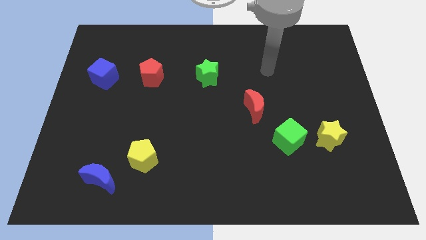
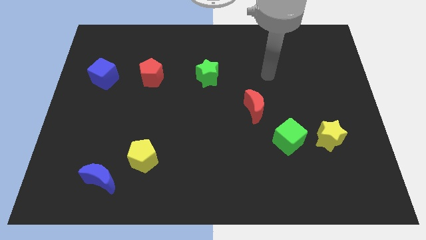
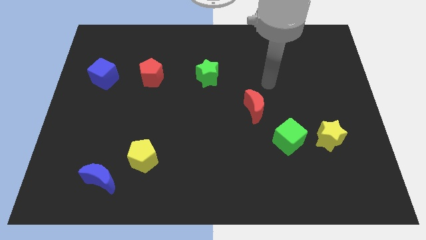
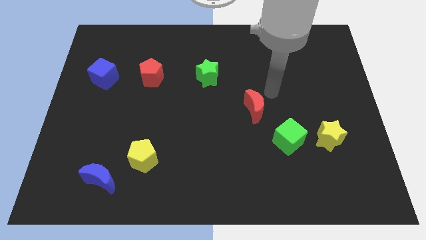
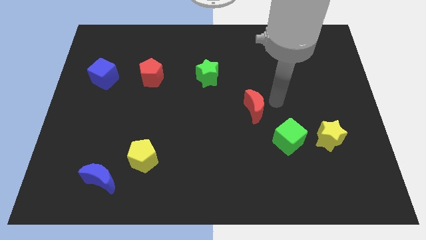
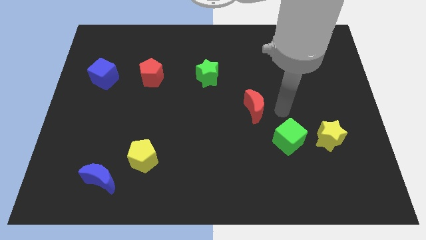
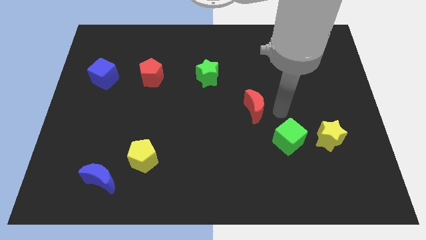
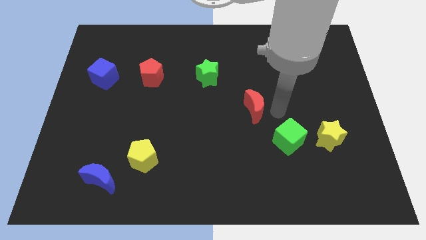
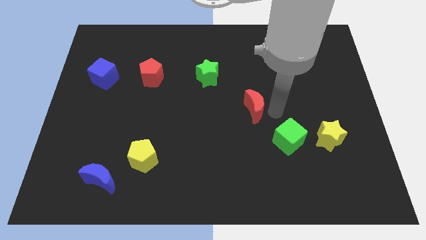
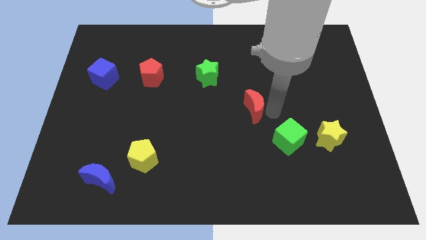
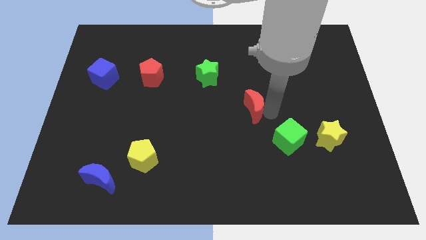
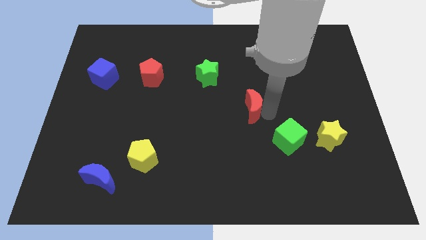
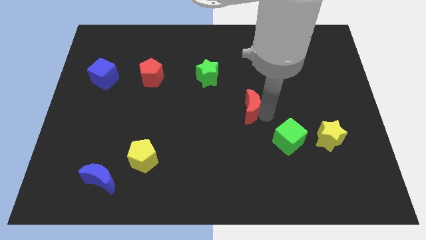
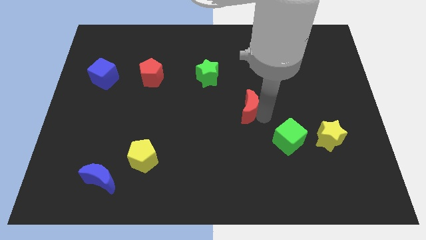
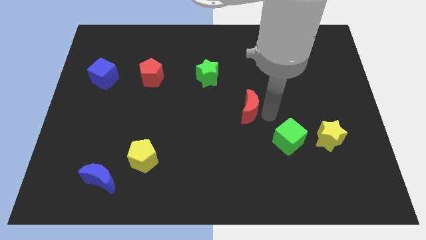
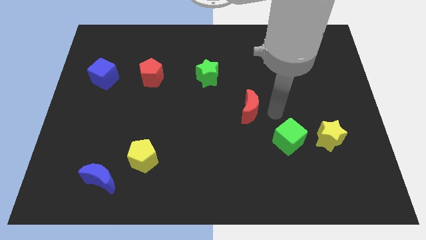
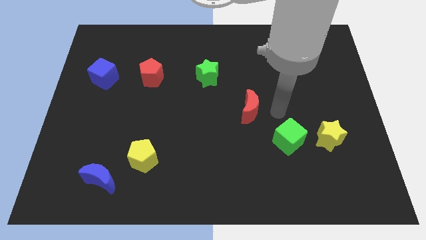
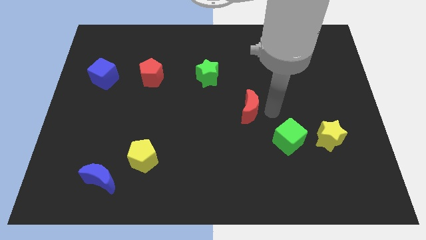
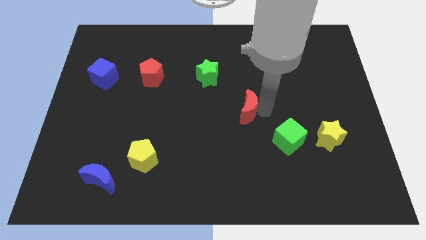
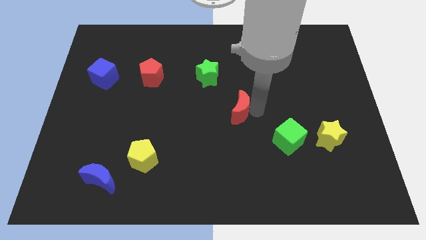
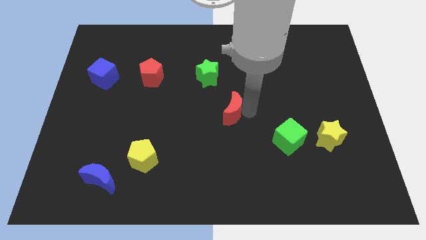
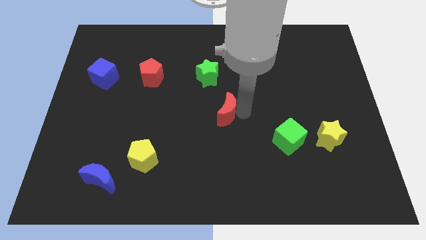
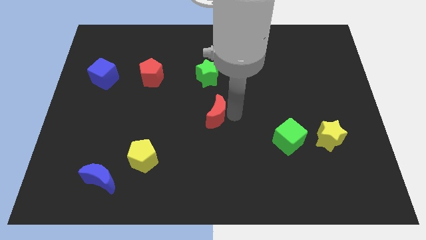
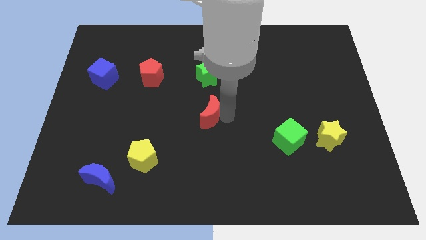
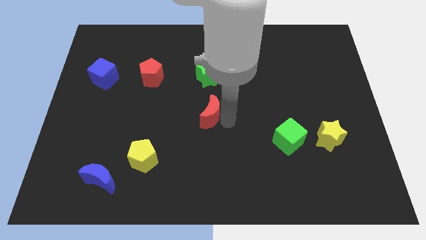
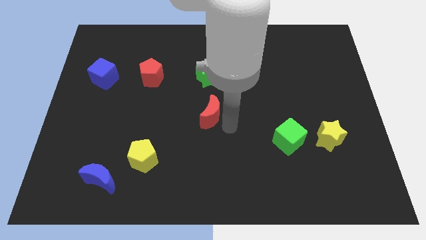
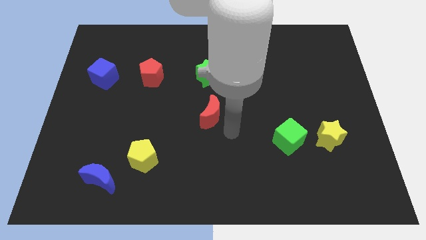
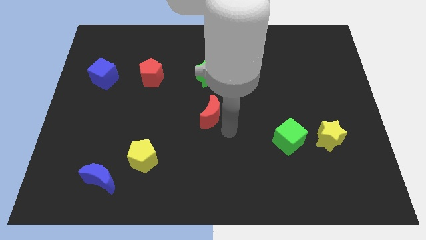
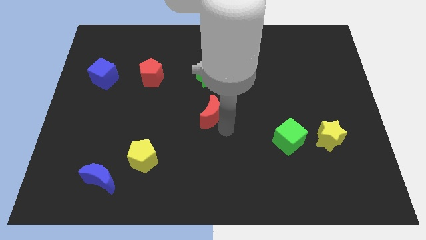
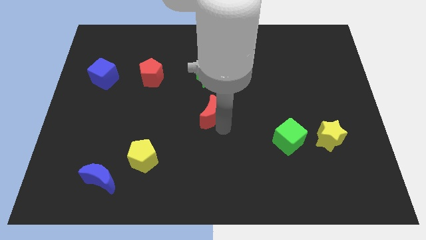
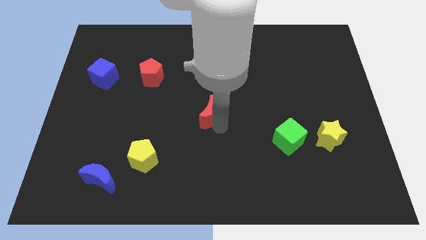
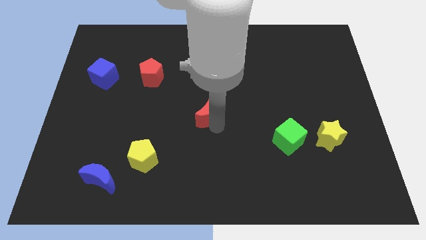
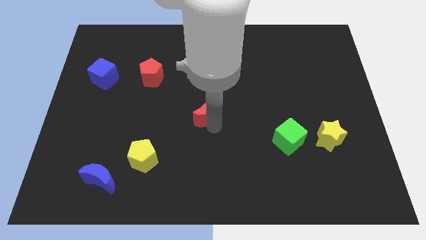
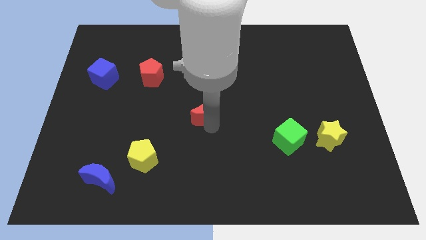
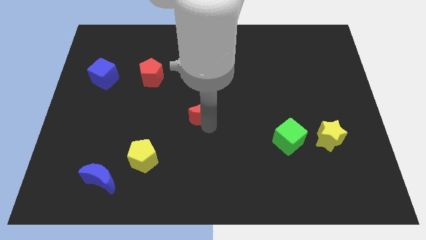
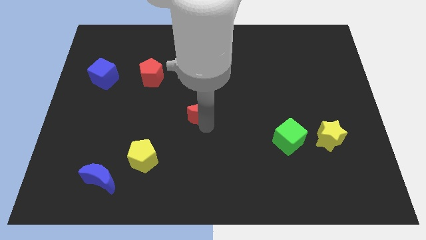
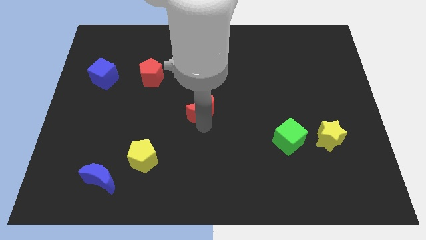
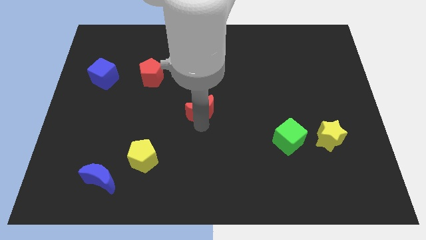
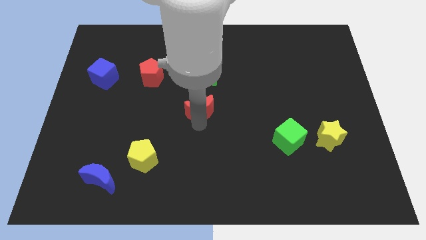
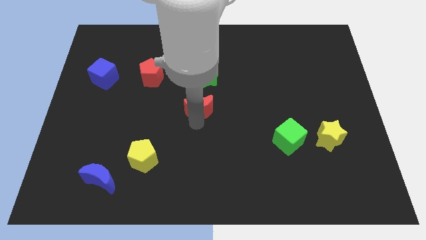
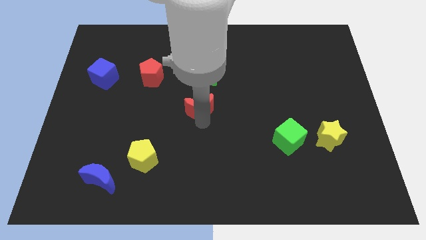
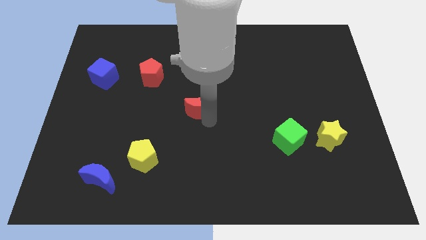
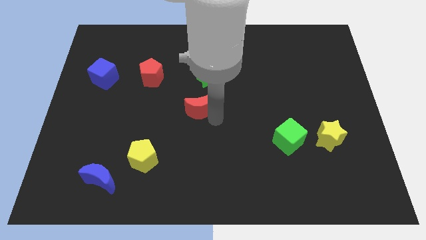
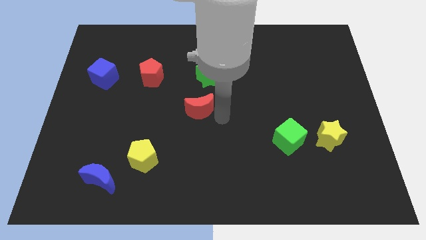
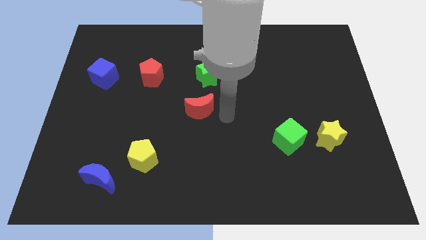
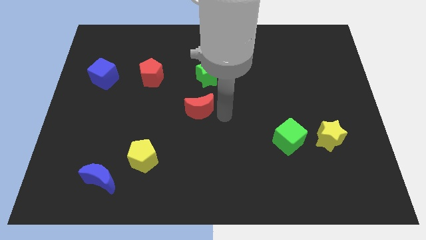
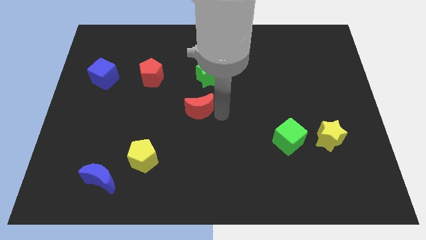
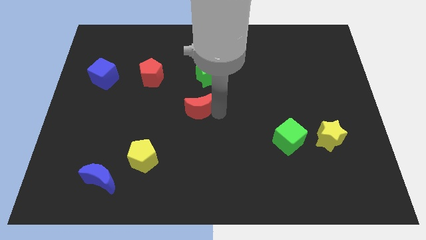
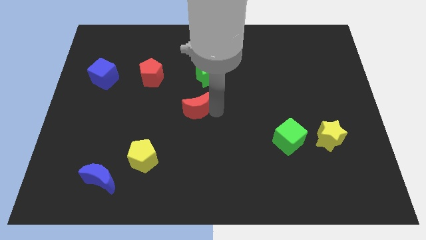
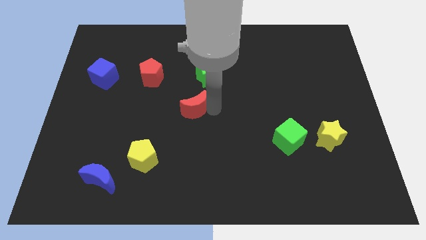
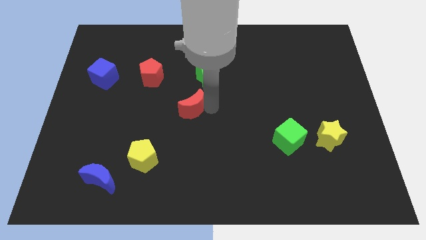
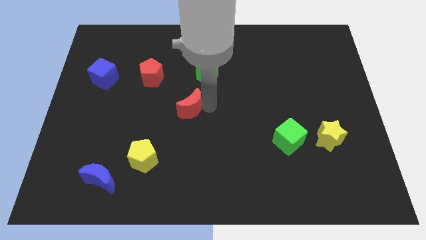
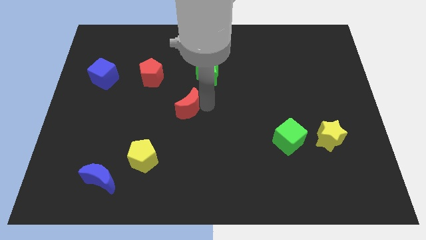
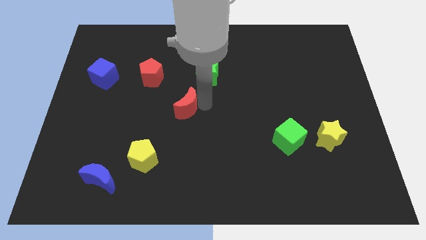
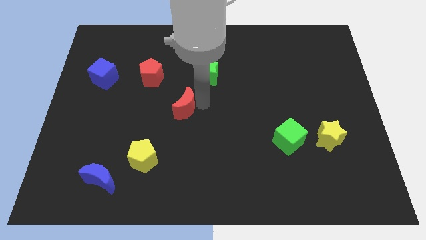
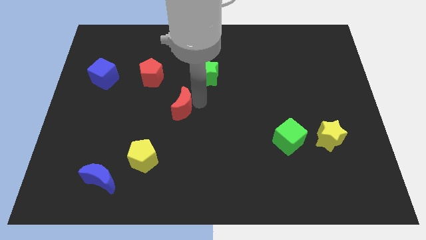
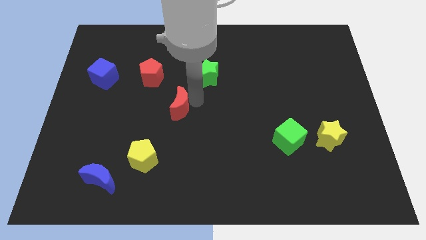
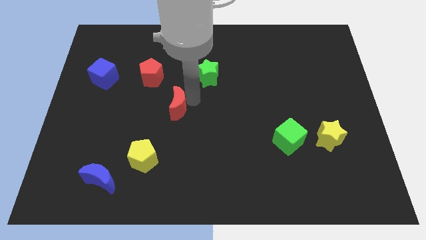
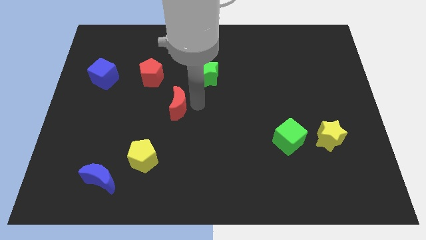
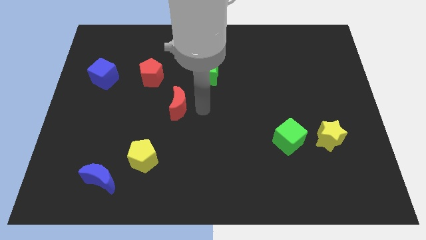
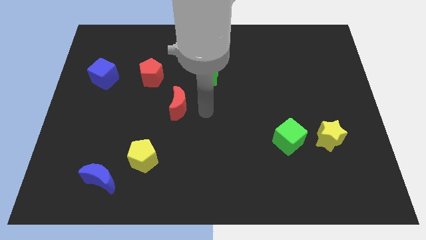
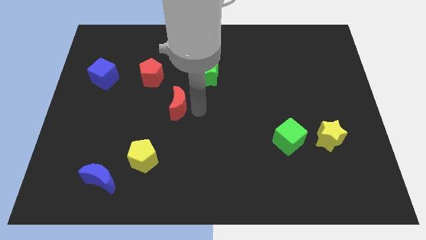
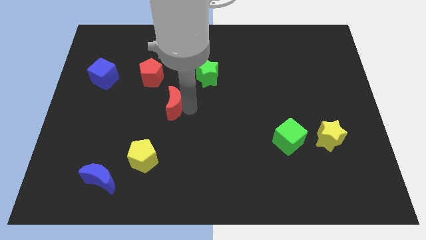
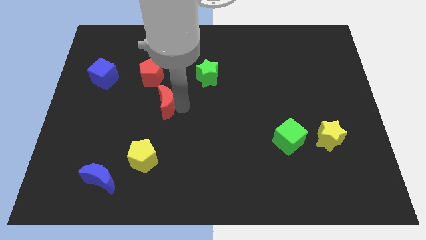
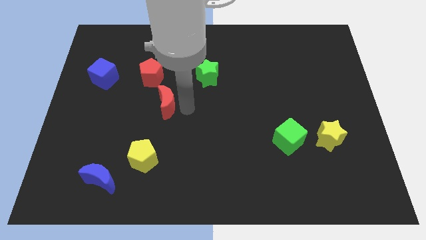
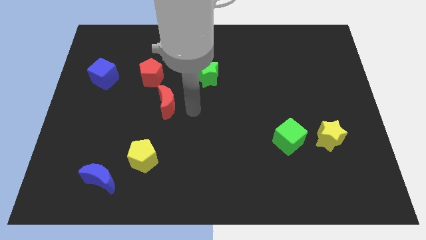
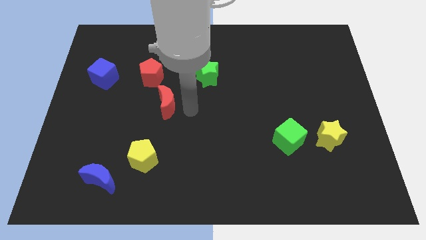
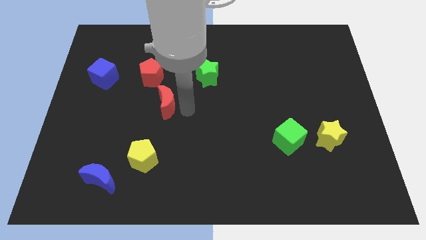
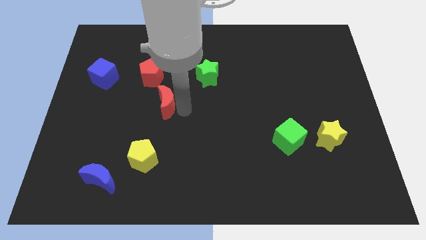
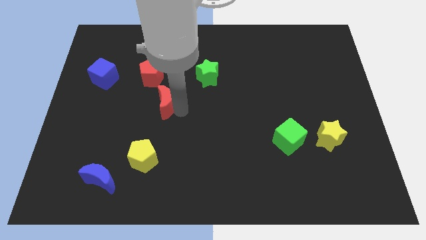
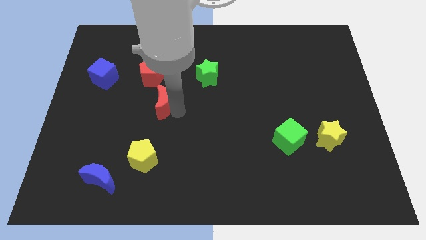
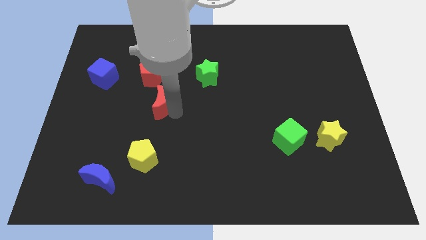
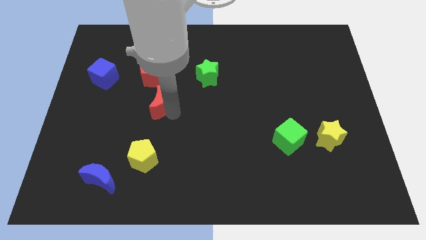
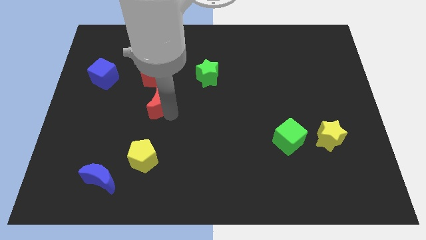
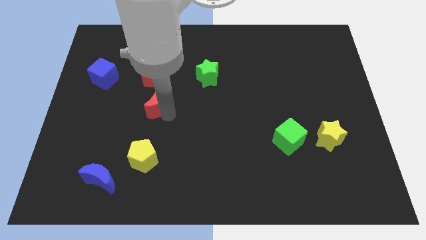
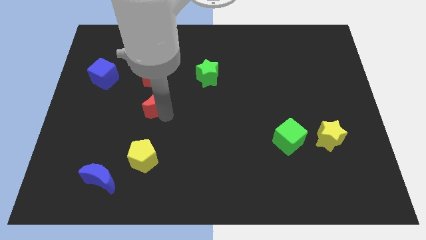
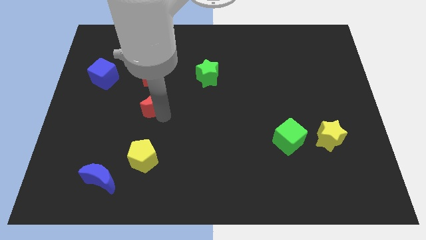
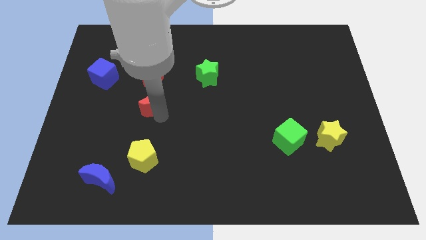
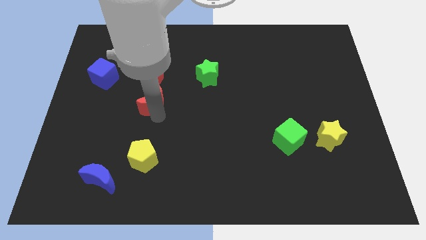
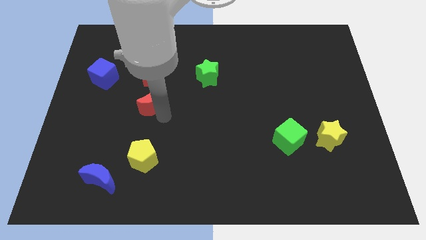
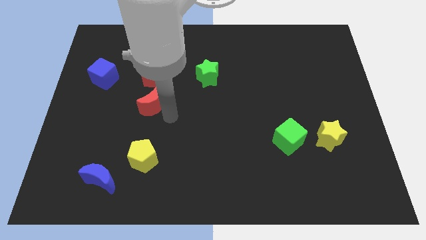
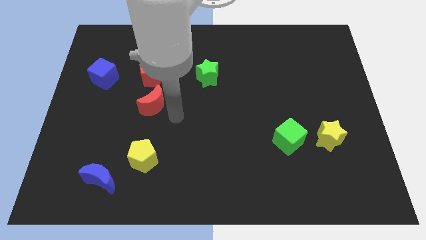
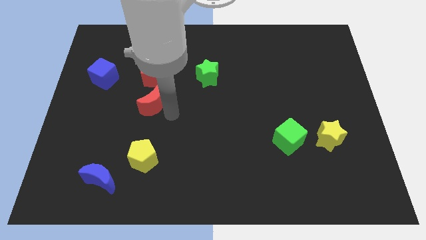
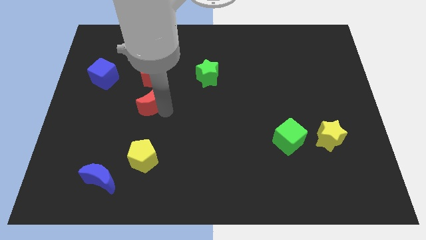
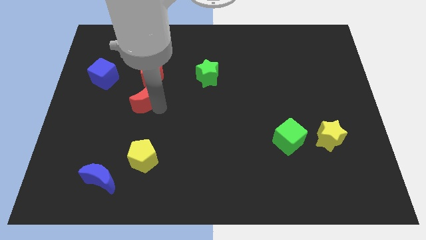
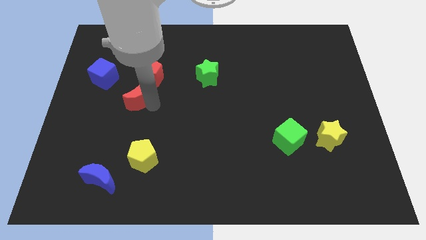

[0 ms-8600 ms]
put the red moon to the bottom left side of the red pentagon
